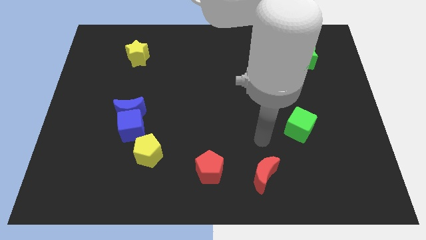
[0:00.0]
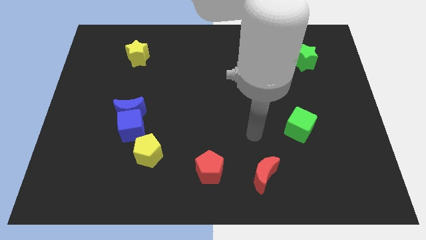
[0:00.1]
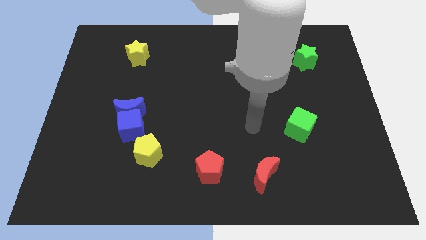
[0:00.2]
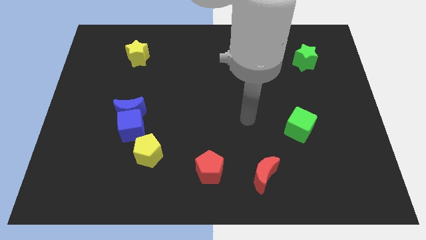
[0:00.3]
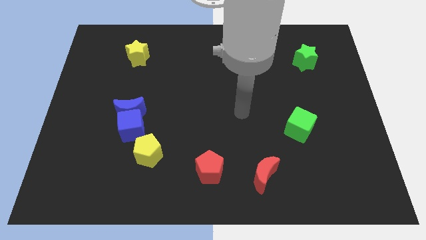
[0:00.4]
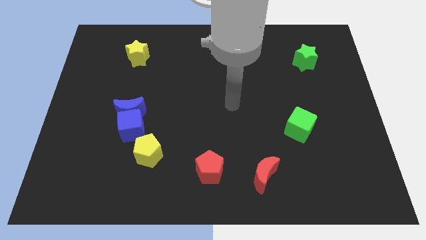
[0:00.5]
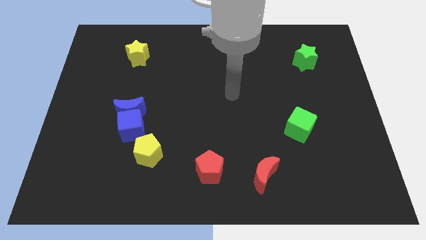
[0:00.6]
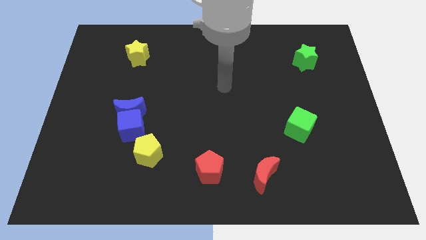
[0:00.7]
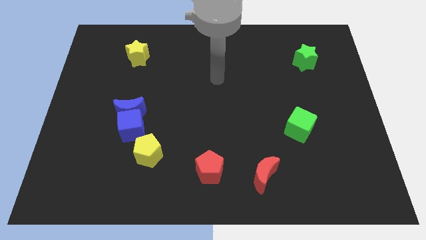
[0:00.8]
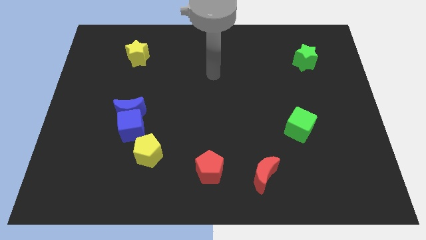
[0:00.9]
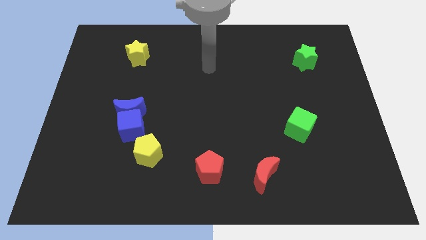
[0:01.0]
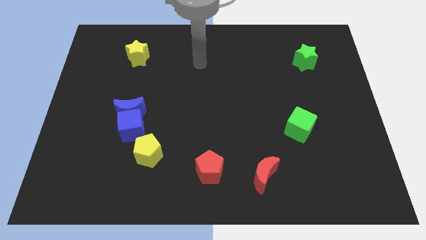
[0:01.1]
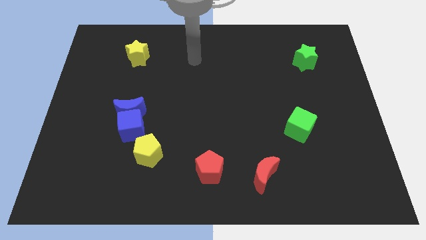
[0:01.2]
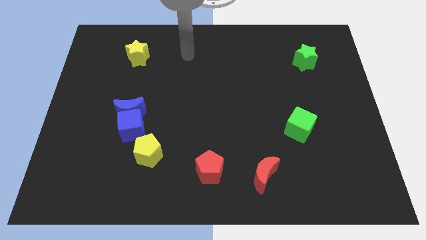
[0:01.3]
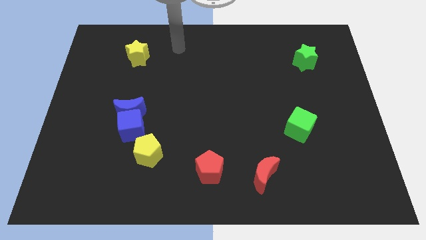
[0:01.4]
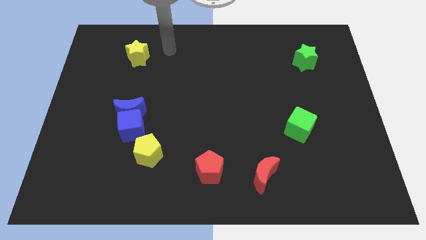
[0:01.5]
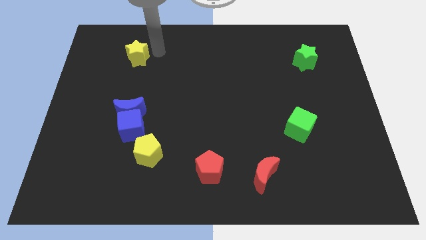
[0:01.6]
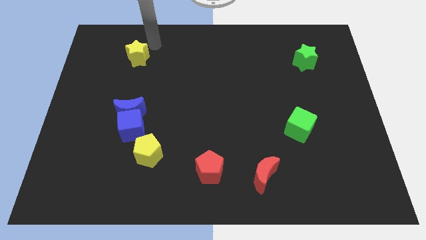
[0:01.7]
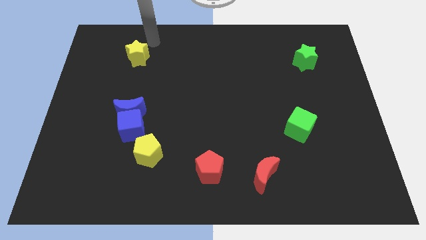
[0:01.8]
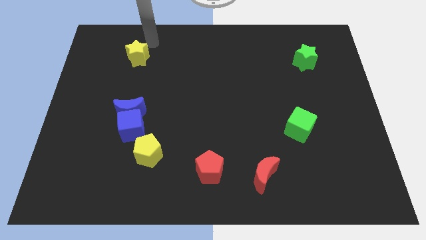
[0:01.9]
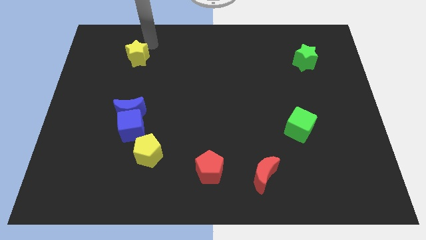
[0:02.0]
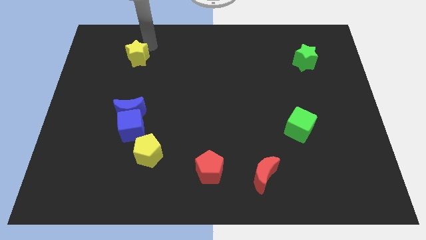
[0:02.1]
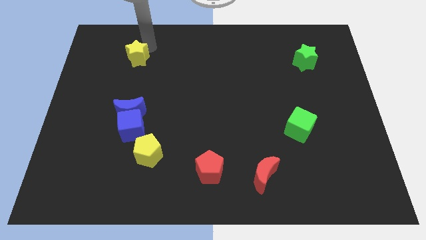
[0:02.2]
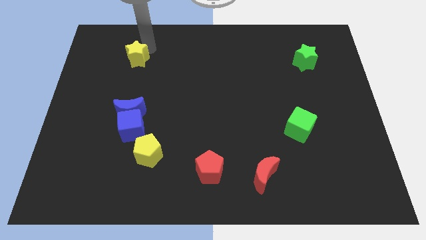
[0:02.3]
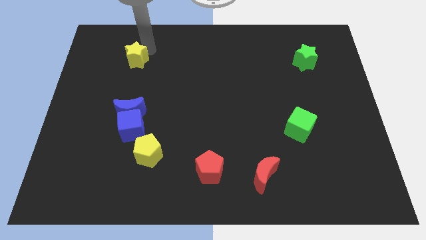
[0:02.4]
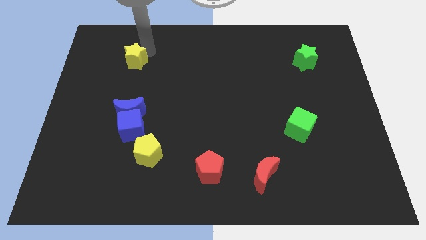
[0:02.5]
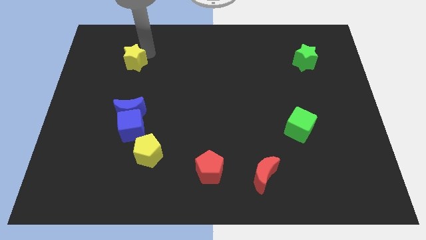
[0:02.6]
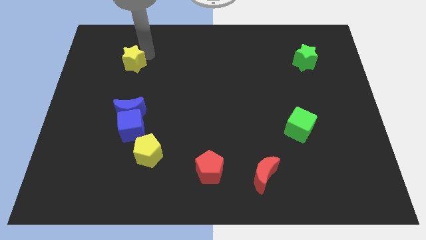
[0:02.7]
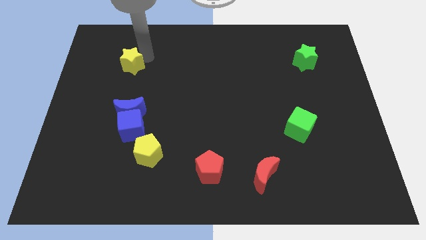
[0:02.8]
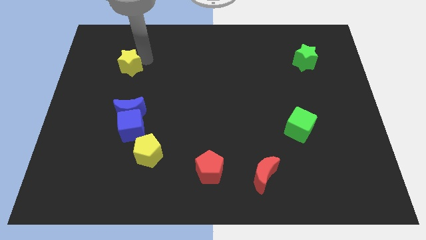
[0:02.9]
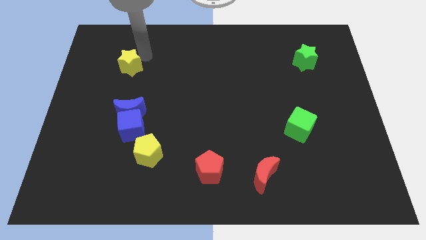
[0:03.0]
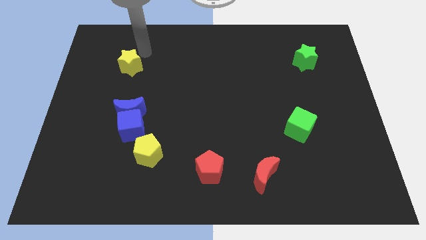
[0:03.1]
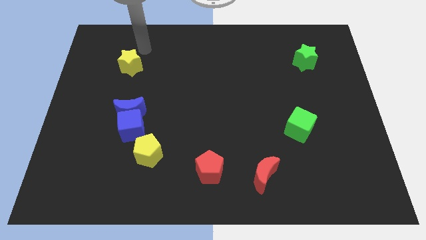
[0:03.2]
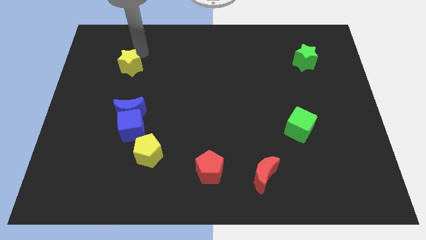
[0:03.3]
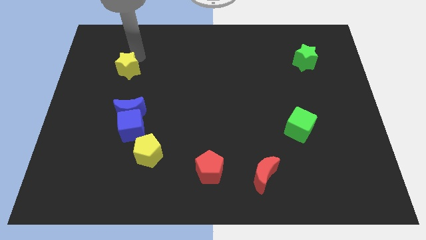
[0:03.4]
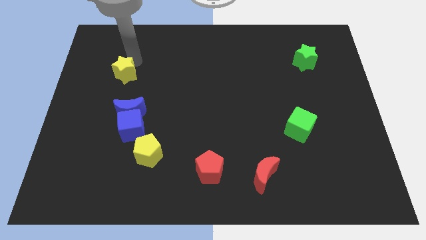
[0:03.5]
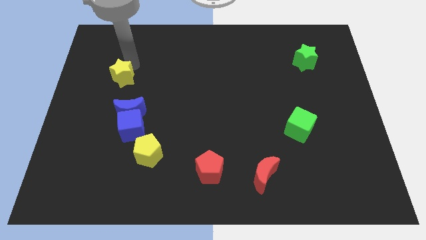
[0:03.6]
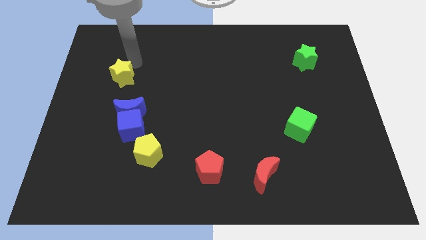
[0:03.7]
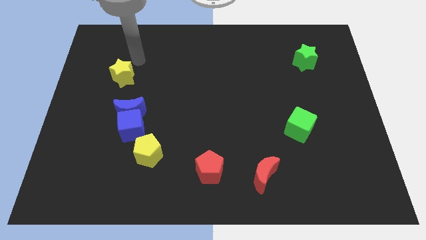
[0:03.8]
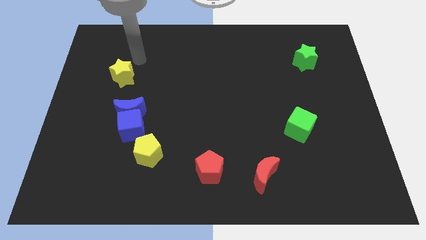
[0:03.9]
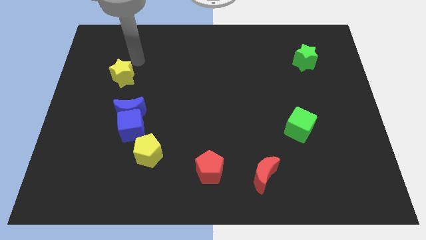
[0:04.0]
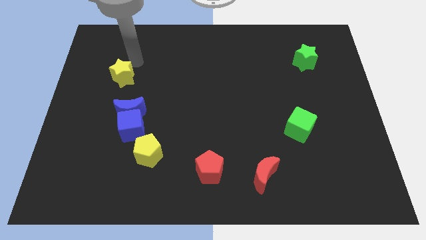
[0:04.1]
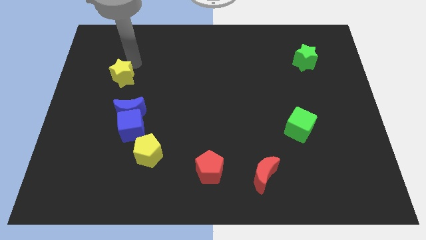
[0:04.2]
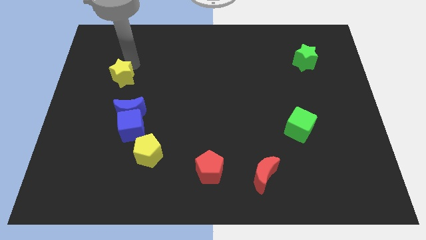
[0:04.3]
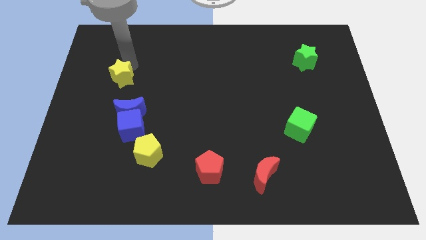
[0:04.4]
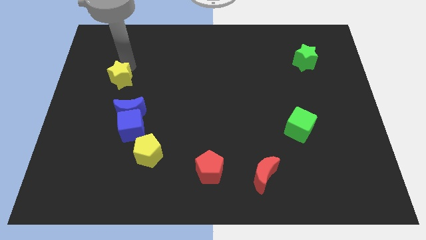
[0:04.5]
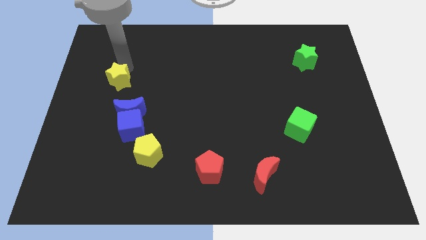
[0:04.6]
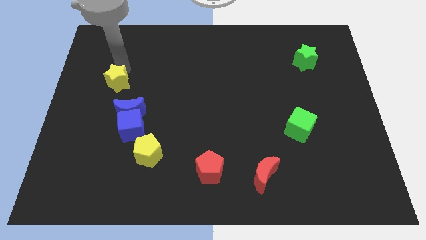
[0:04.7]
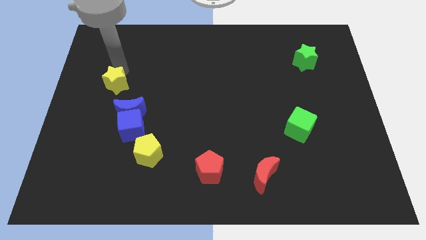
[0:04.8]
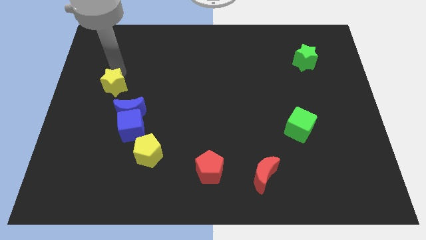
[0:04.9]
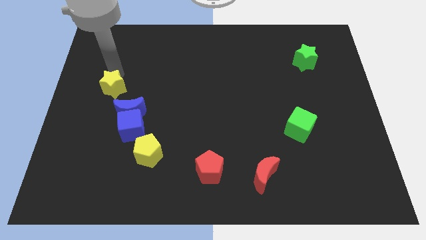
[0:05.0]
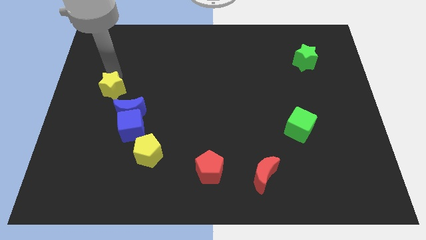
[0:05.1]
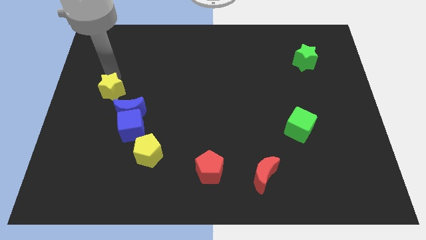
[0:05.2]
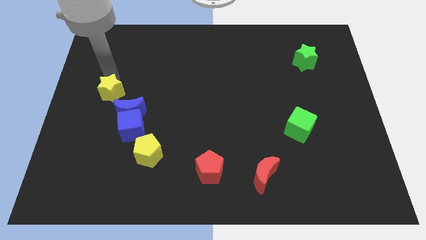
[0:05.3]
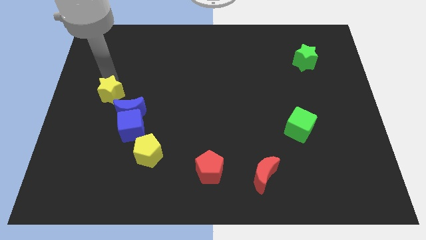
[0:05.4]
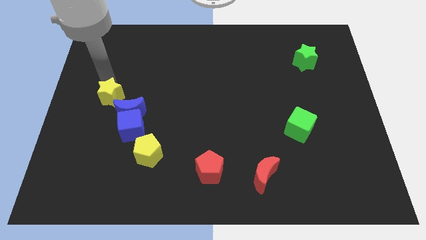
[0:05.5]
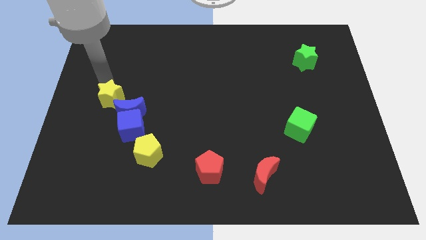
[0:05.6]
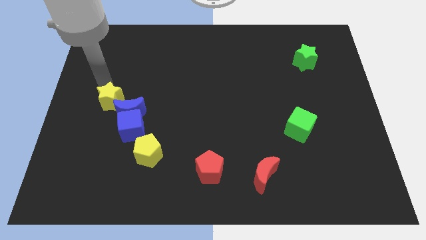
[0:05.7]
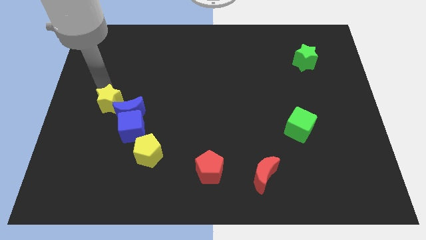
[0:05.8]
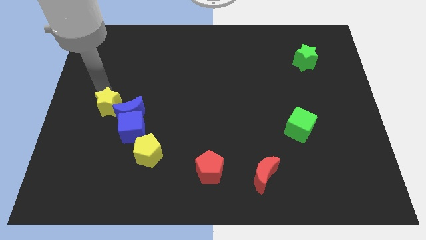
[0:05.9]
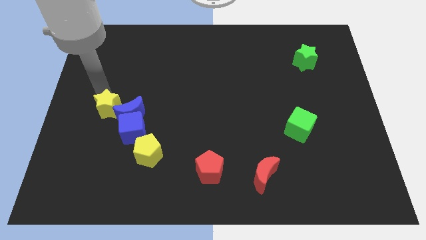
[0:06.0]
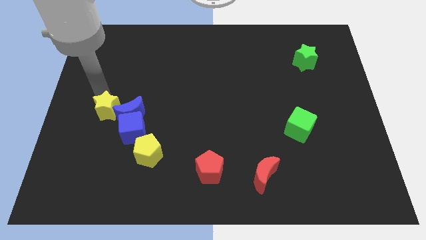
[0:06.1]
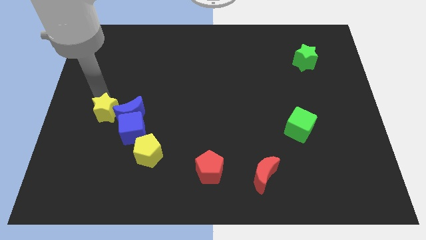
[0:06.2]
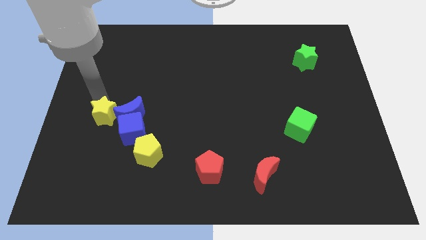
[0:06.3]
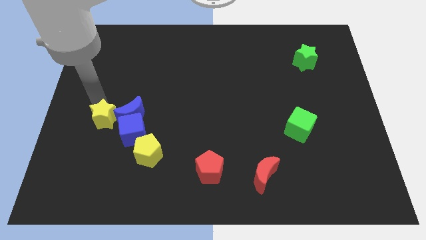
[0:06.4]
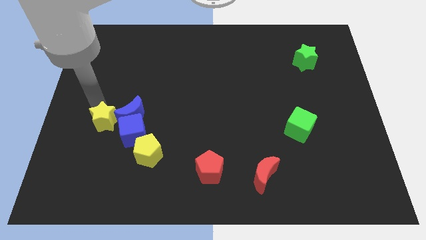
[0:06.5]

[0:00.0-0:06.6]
move the yellow star down

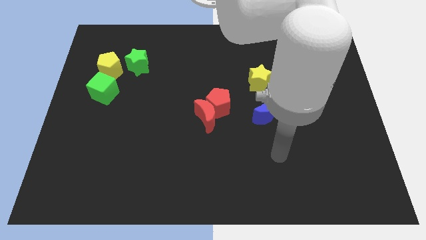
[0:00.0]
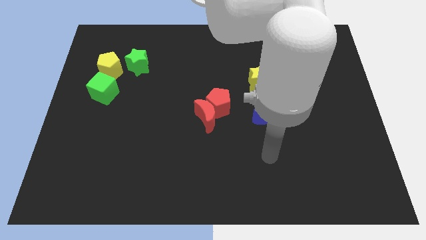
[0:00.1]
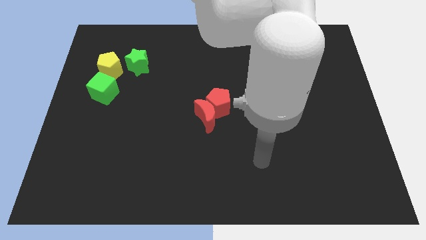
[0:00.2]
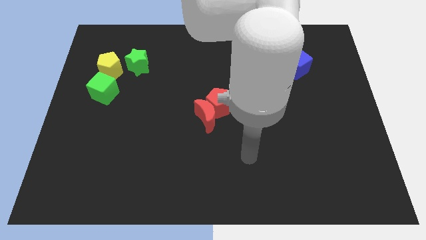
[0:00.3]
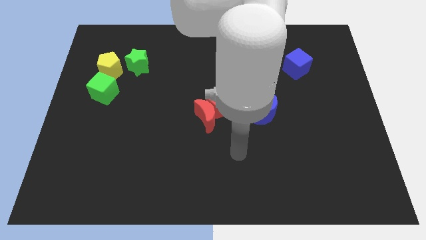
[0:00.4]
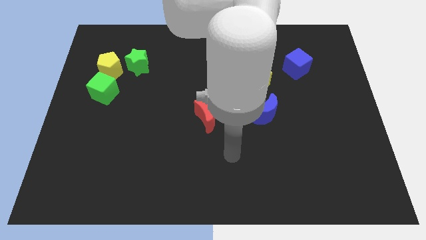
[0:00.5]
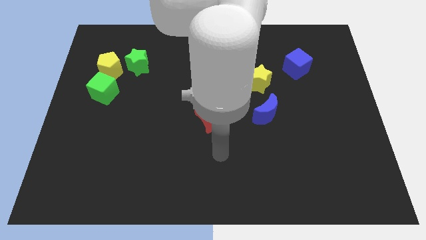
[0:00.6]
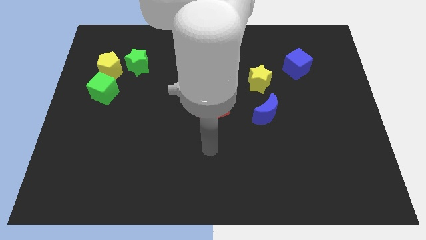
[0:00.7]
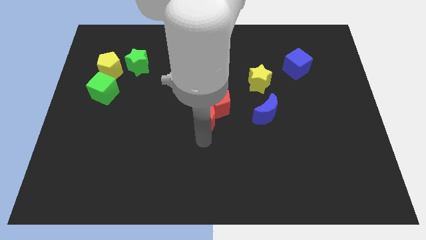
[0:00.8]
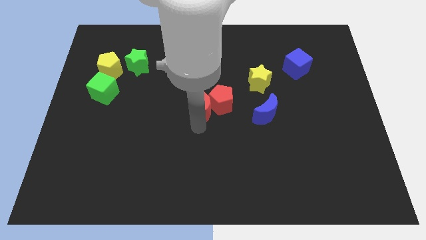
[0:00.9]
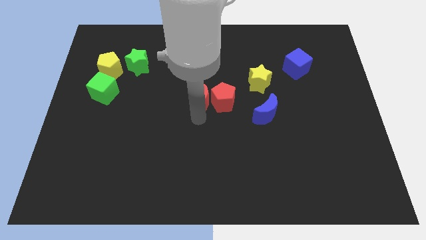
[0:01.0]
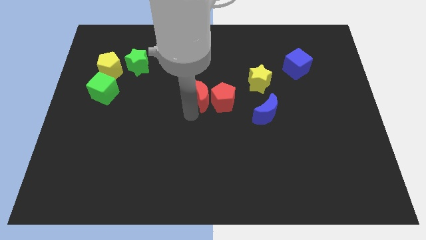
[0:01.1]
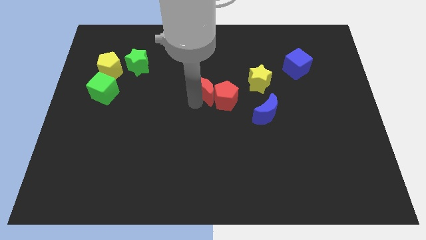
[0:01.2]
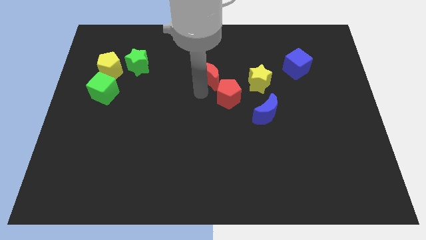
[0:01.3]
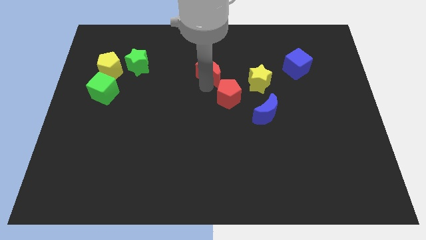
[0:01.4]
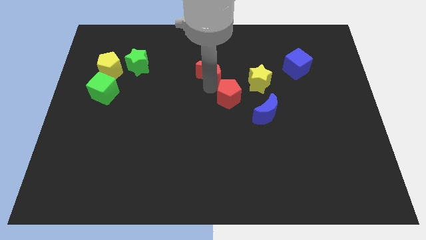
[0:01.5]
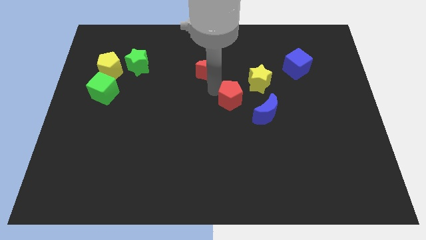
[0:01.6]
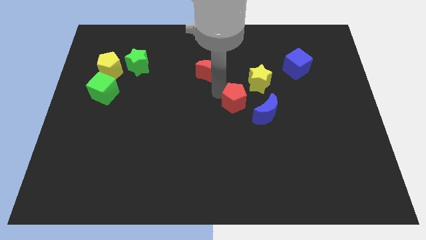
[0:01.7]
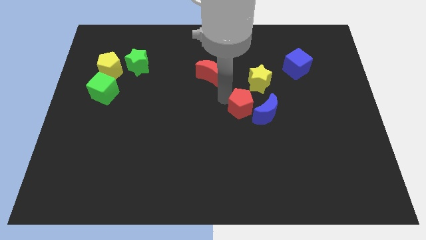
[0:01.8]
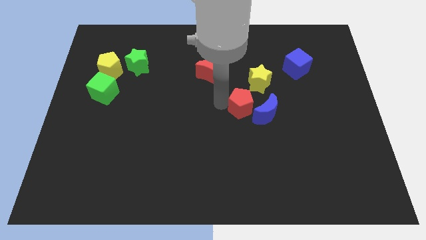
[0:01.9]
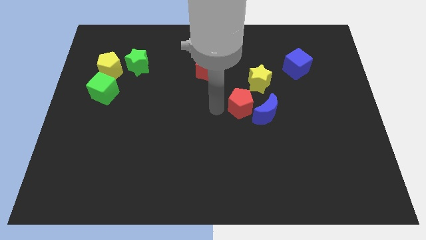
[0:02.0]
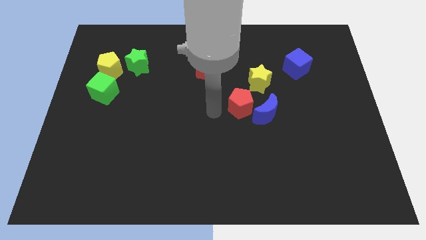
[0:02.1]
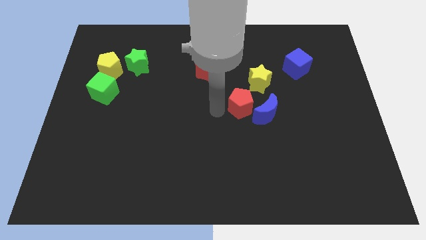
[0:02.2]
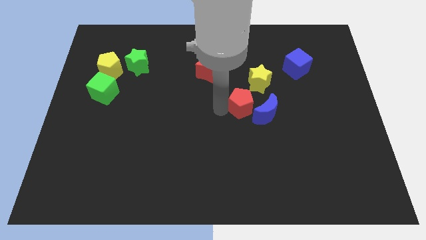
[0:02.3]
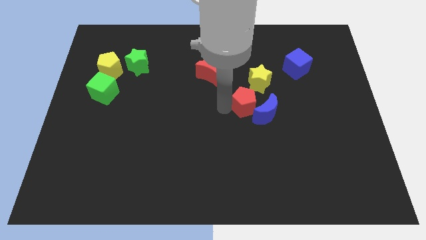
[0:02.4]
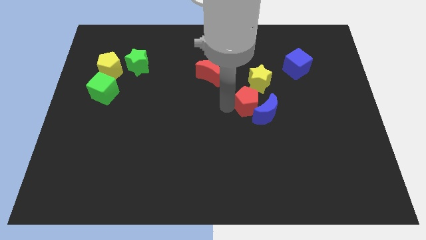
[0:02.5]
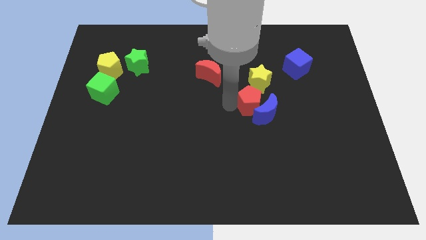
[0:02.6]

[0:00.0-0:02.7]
push the red pentagon slightly to the right
